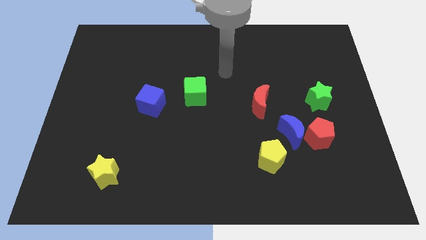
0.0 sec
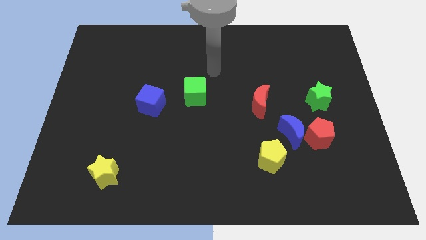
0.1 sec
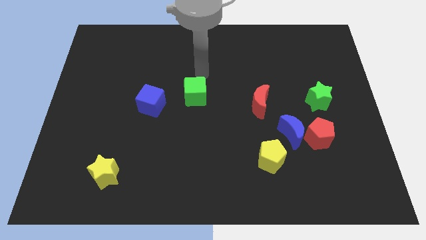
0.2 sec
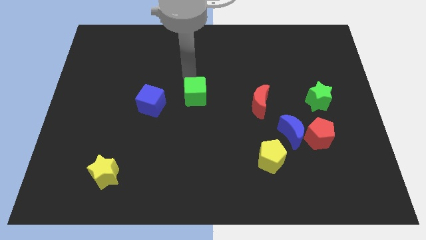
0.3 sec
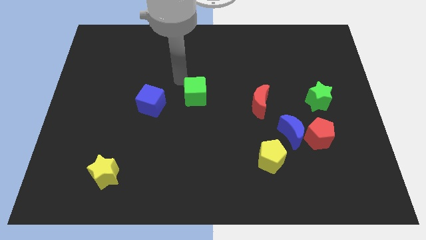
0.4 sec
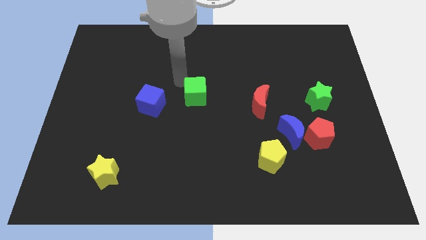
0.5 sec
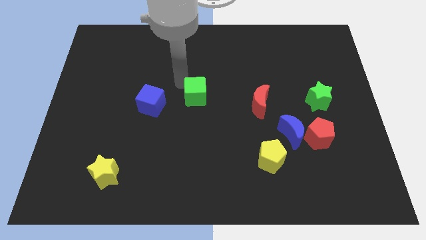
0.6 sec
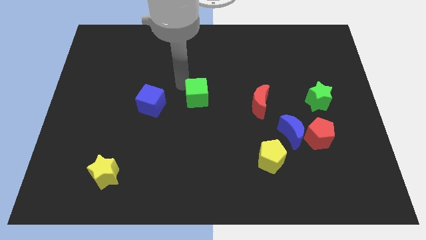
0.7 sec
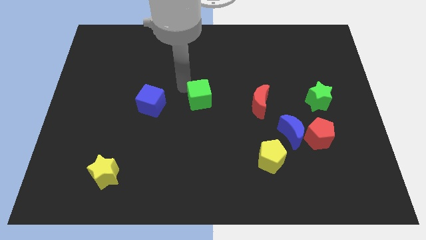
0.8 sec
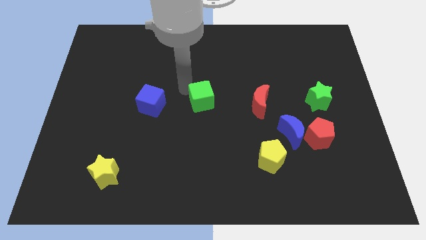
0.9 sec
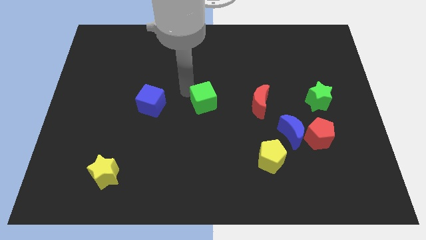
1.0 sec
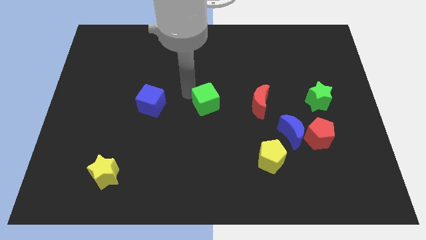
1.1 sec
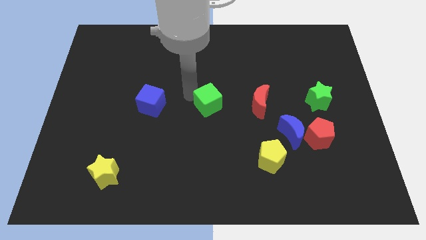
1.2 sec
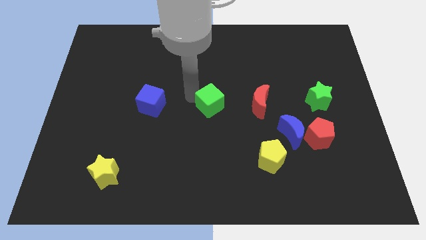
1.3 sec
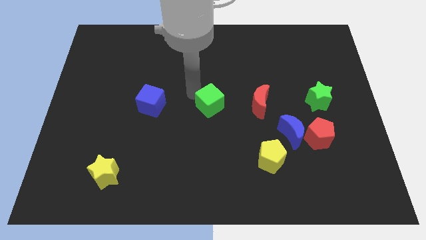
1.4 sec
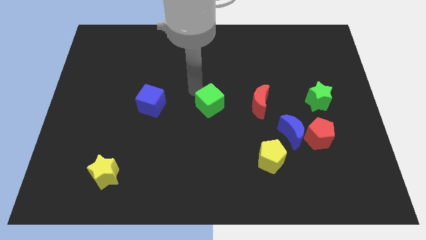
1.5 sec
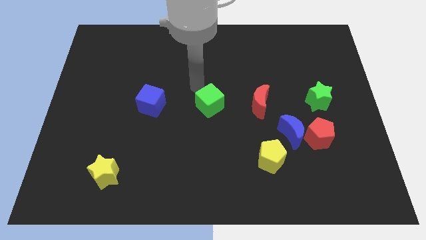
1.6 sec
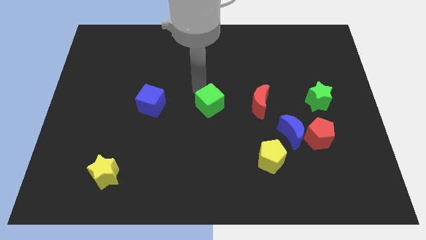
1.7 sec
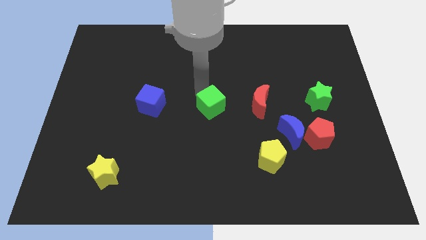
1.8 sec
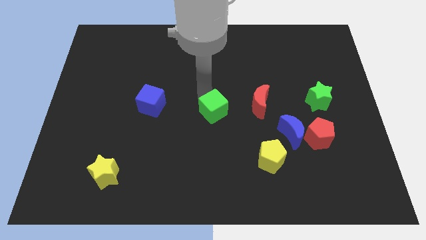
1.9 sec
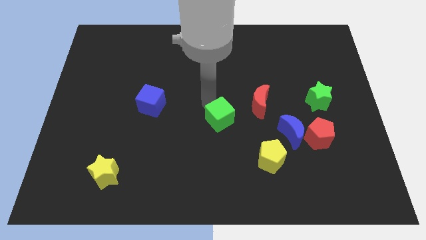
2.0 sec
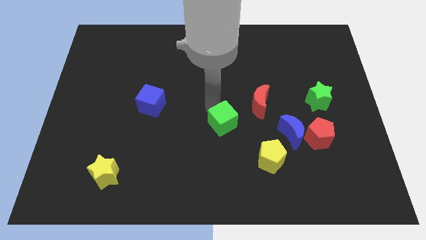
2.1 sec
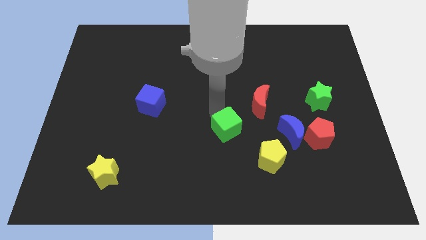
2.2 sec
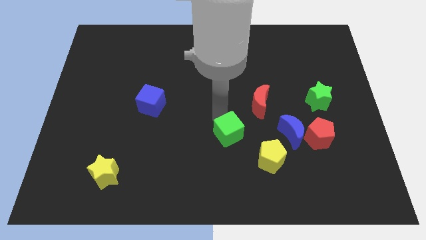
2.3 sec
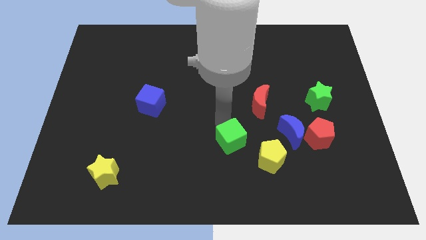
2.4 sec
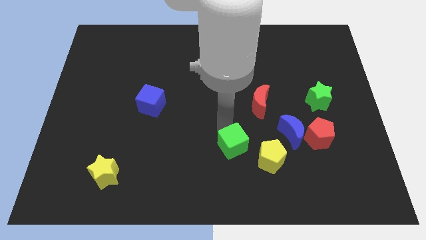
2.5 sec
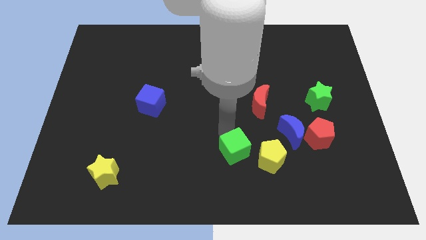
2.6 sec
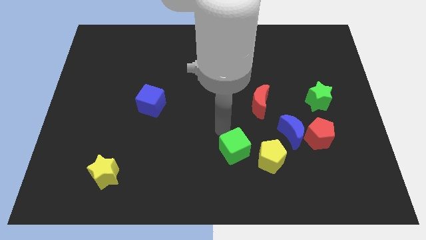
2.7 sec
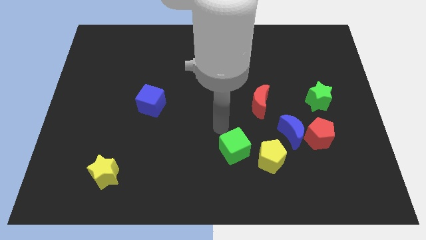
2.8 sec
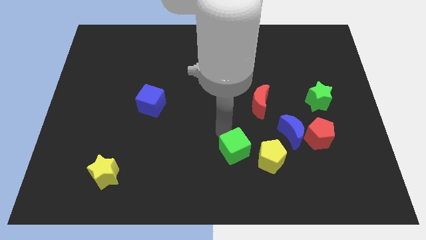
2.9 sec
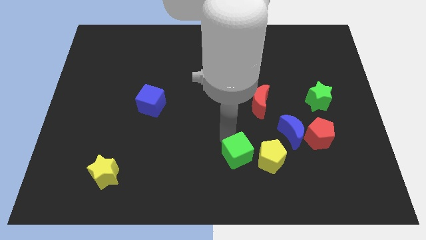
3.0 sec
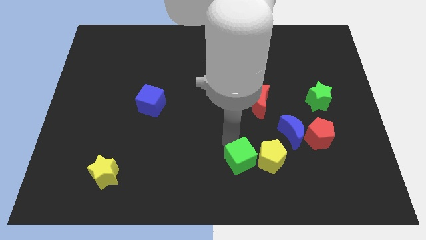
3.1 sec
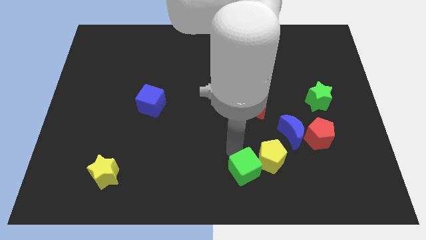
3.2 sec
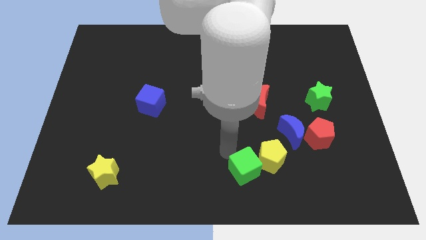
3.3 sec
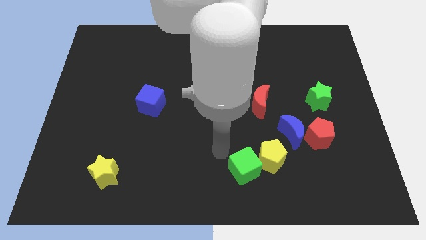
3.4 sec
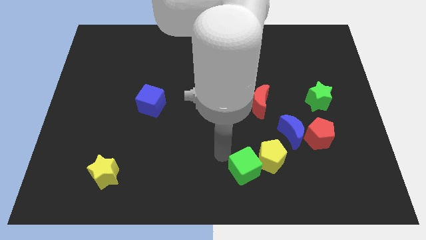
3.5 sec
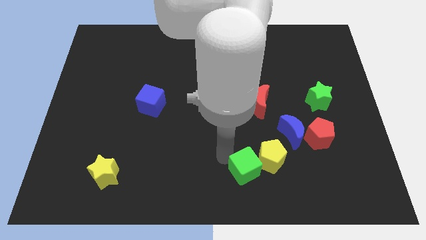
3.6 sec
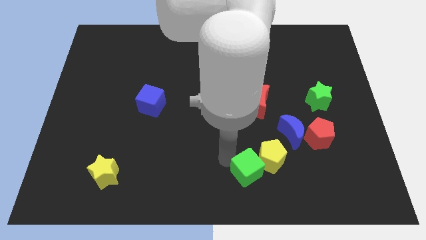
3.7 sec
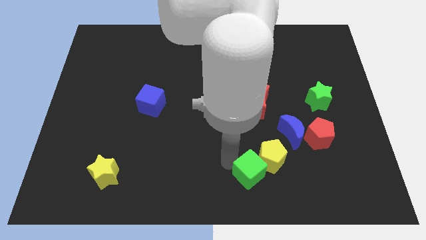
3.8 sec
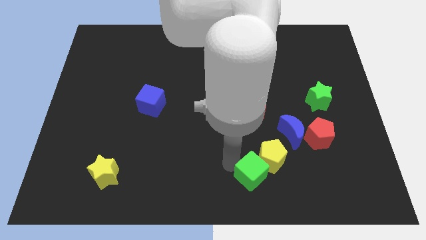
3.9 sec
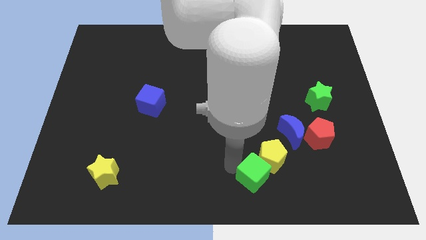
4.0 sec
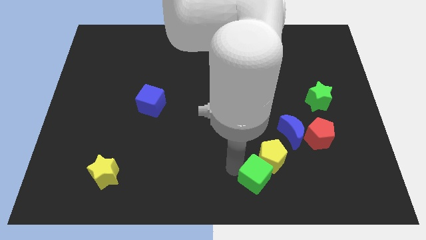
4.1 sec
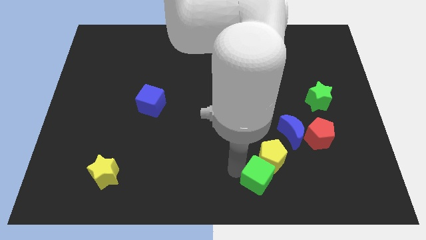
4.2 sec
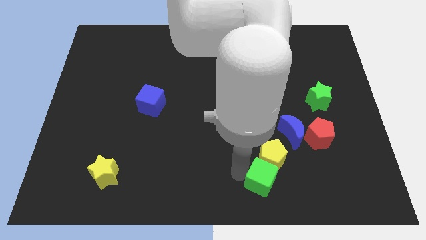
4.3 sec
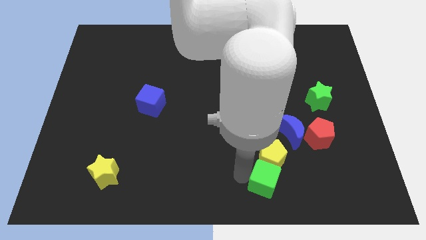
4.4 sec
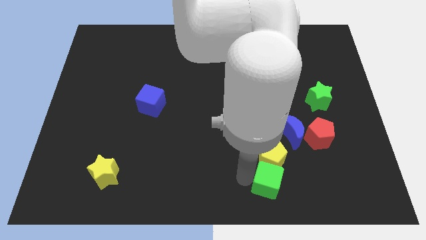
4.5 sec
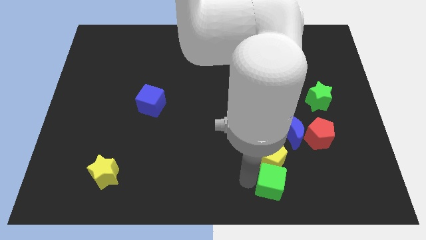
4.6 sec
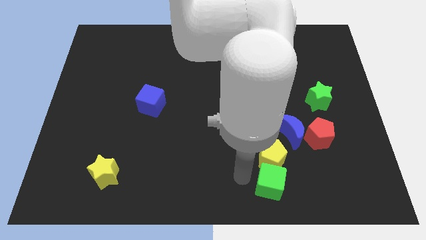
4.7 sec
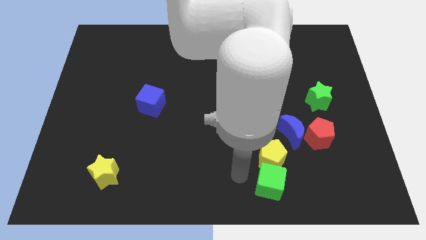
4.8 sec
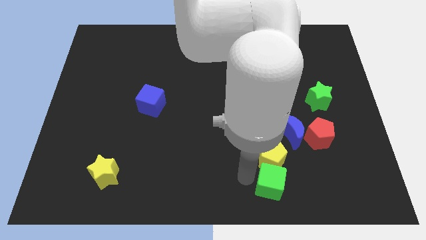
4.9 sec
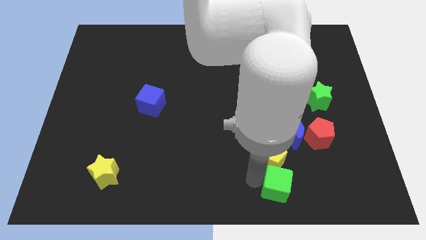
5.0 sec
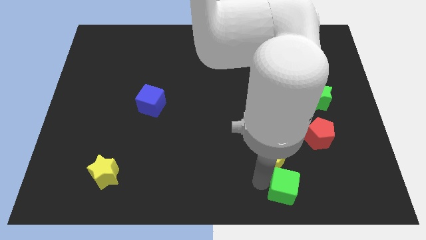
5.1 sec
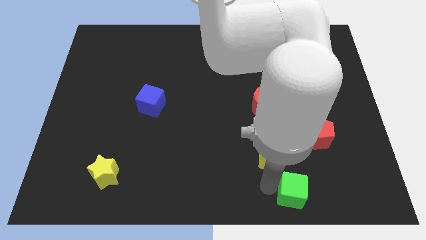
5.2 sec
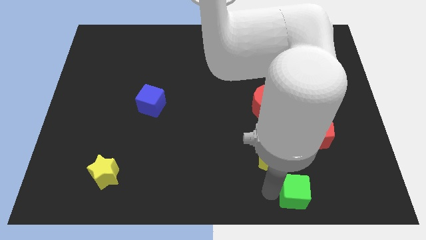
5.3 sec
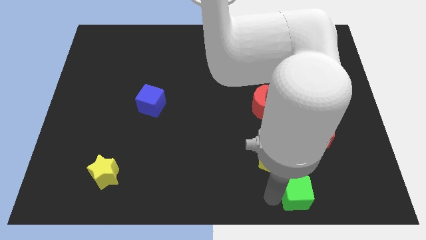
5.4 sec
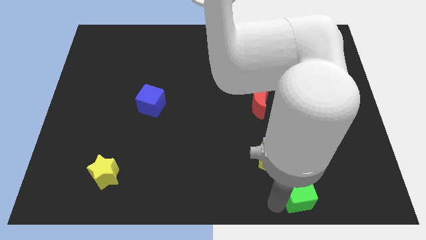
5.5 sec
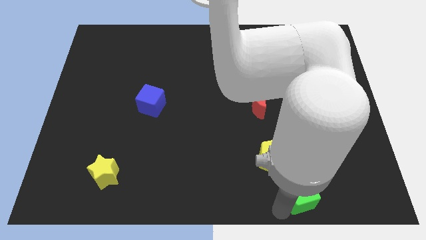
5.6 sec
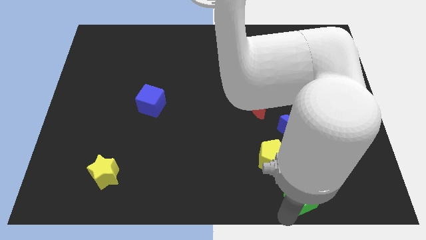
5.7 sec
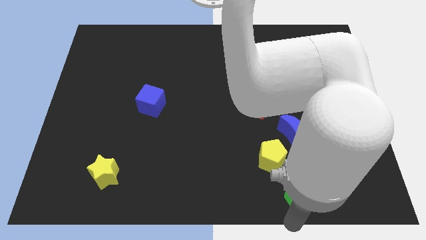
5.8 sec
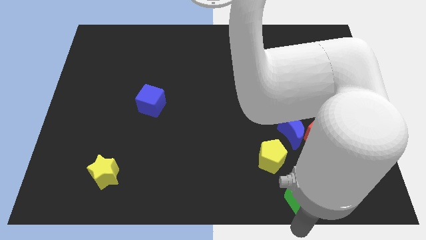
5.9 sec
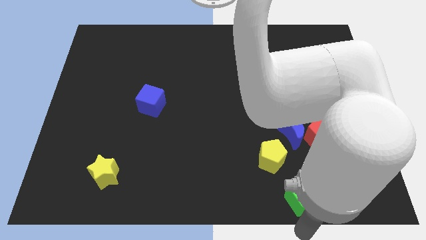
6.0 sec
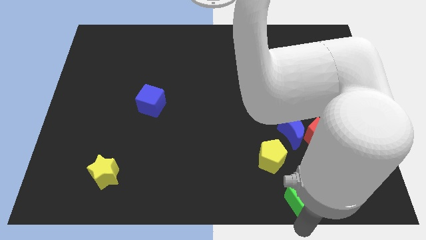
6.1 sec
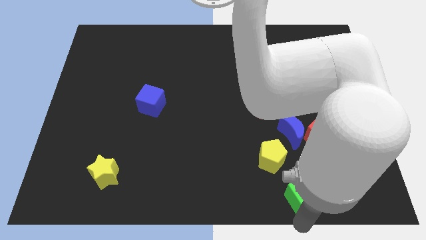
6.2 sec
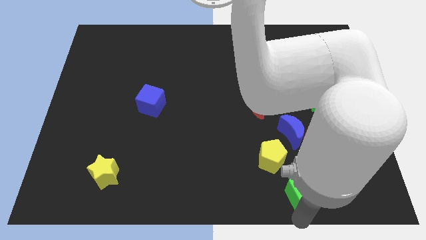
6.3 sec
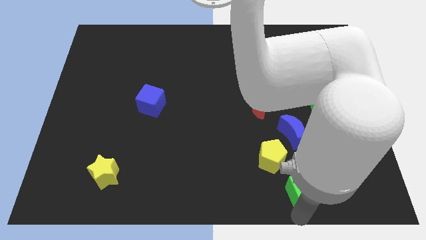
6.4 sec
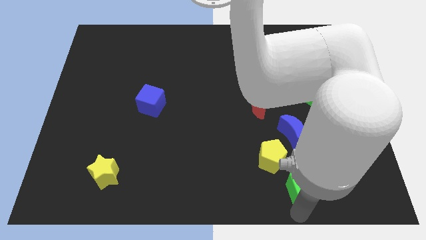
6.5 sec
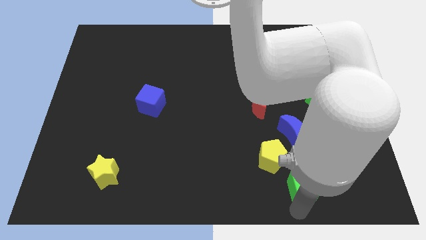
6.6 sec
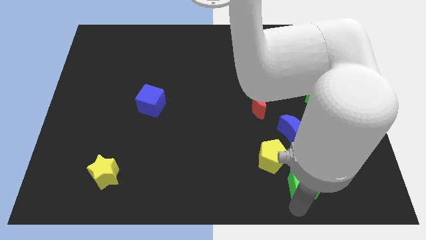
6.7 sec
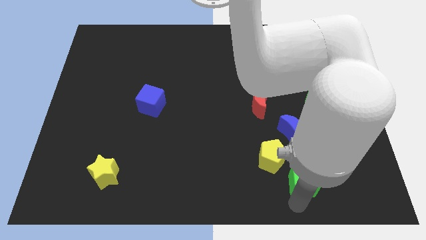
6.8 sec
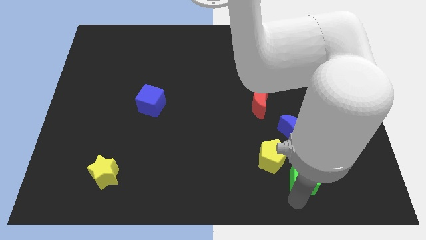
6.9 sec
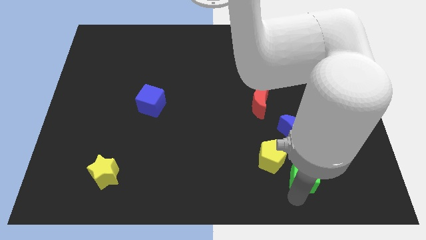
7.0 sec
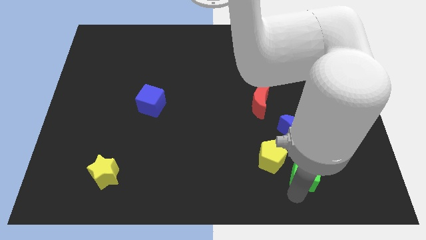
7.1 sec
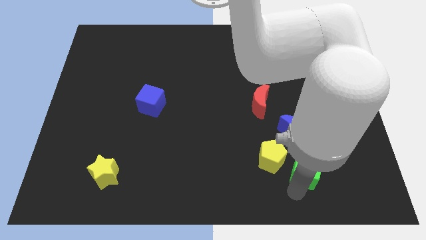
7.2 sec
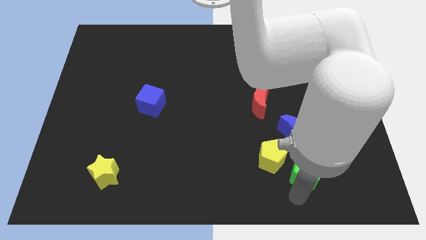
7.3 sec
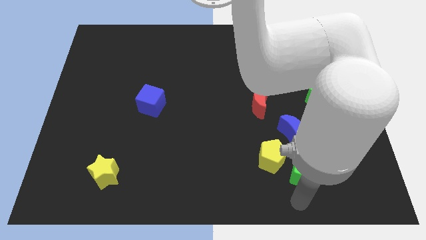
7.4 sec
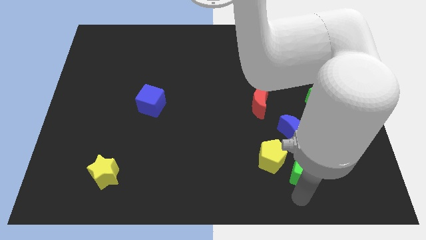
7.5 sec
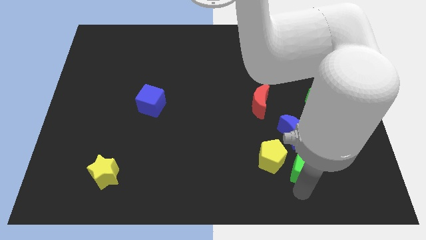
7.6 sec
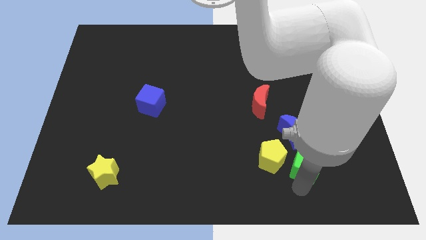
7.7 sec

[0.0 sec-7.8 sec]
put the green cube to the bottom right side of the blue moon
